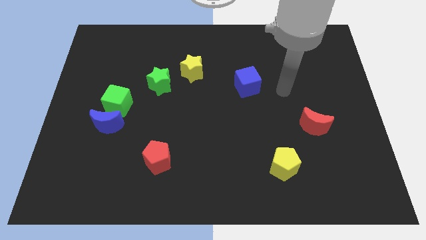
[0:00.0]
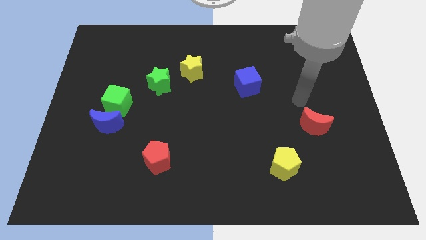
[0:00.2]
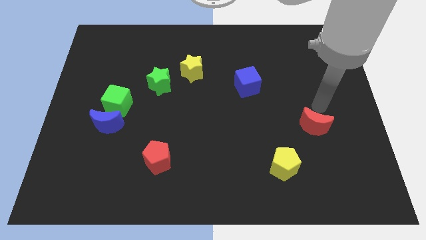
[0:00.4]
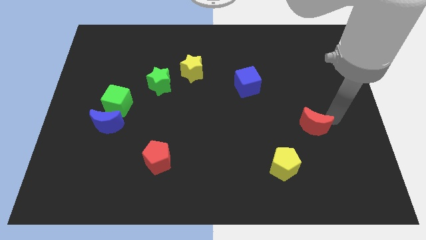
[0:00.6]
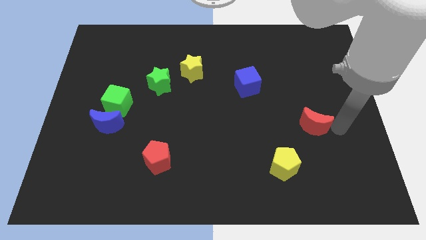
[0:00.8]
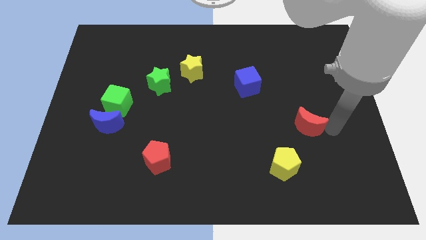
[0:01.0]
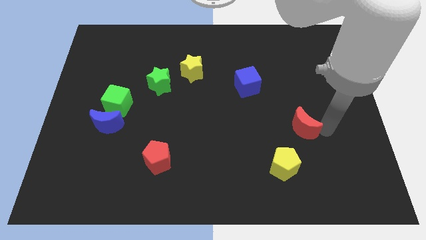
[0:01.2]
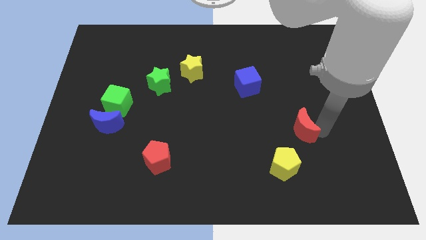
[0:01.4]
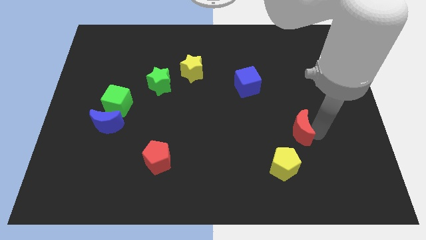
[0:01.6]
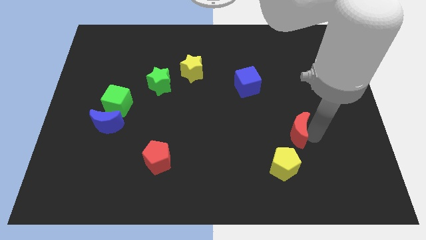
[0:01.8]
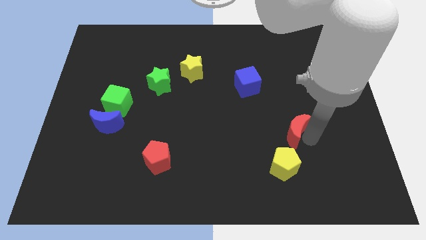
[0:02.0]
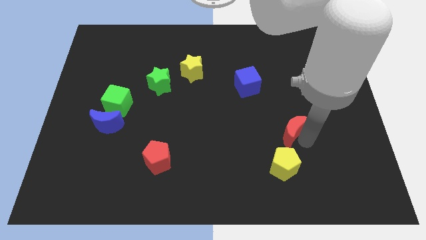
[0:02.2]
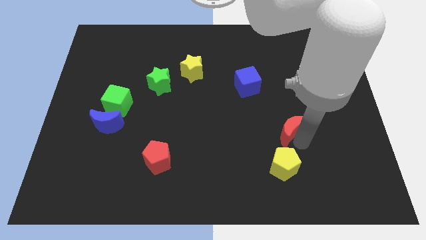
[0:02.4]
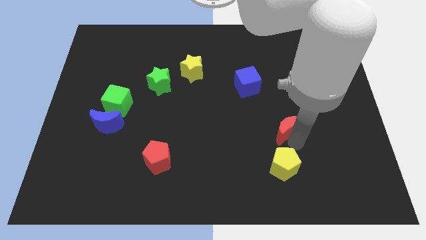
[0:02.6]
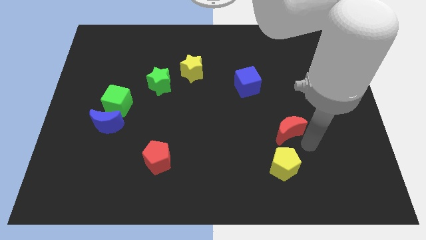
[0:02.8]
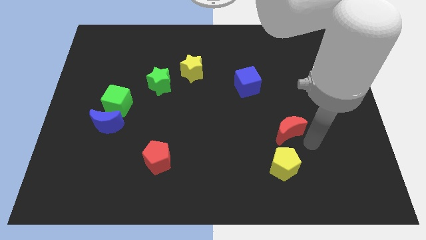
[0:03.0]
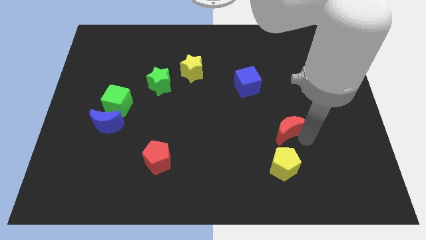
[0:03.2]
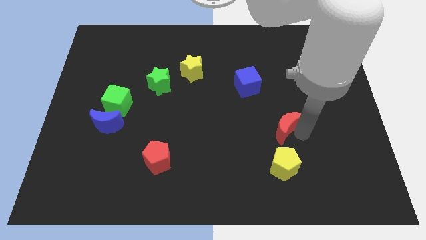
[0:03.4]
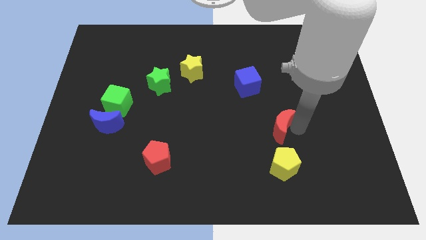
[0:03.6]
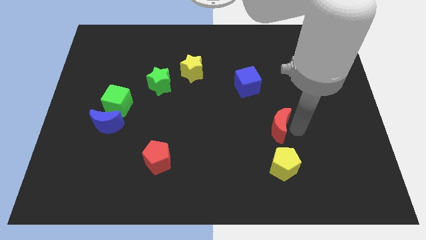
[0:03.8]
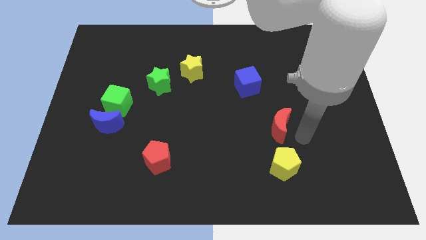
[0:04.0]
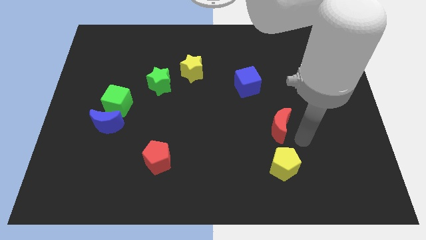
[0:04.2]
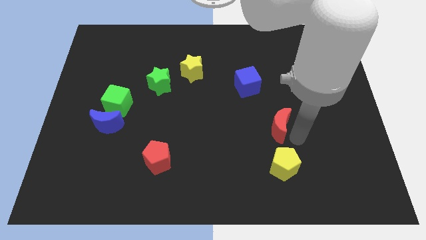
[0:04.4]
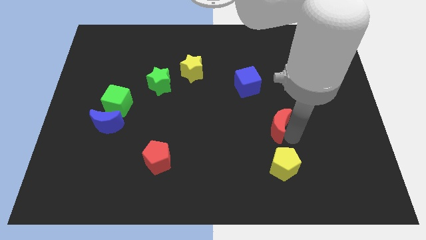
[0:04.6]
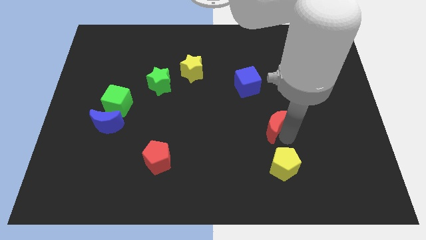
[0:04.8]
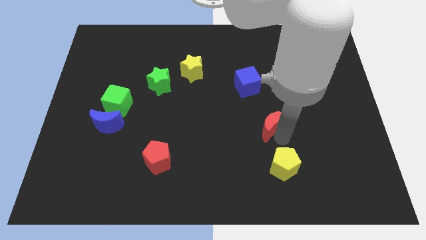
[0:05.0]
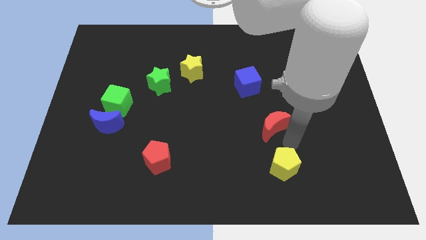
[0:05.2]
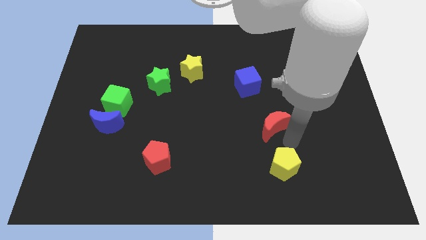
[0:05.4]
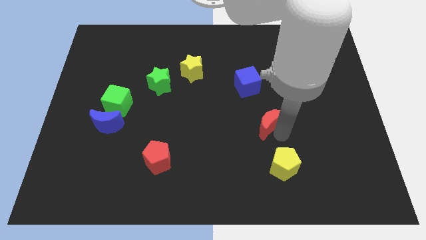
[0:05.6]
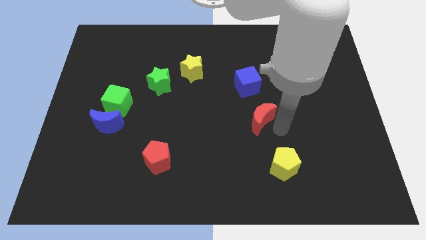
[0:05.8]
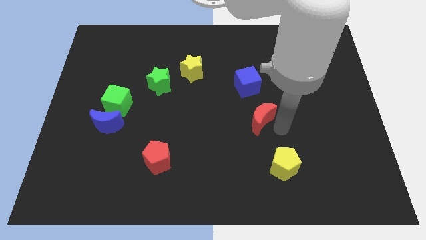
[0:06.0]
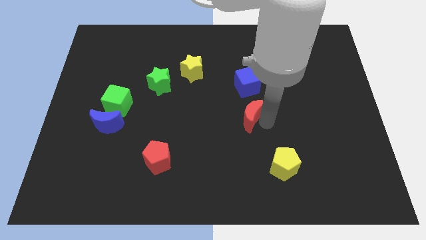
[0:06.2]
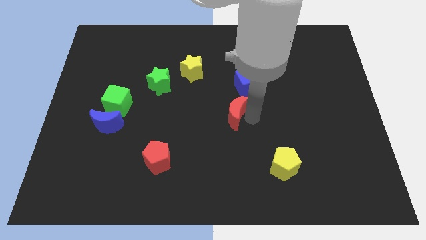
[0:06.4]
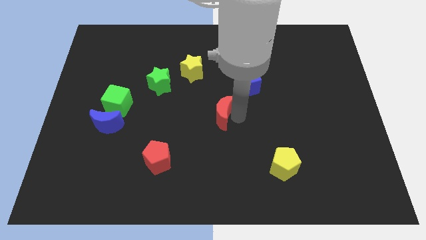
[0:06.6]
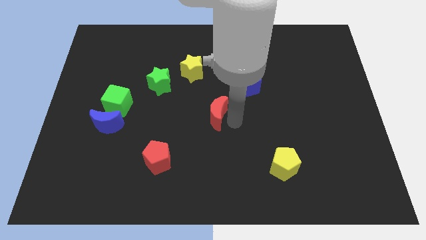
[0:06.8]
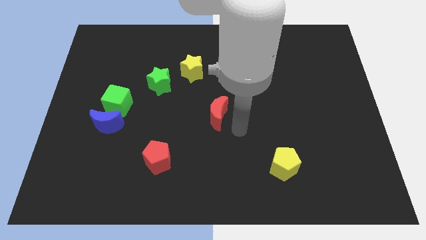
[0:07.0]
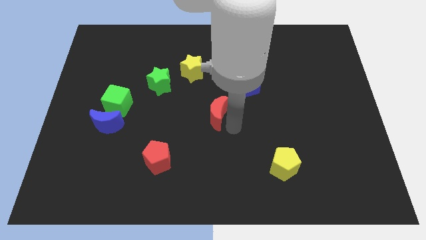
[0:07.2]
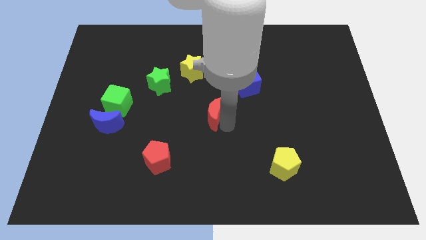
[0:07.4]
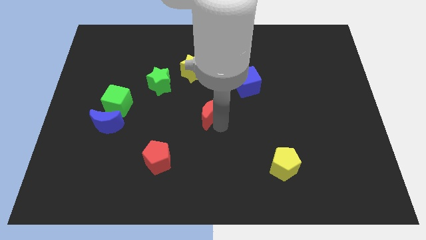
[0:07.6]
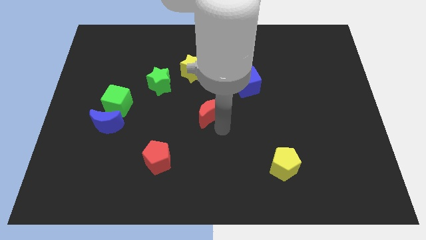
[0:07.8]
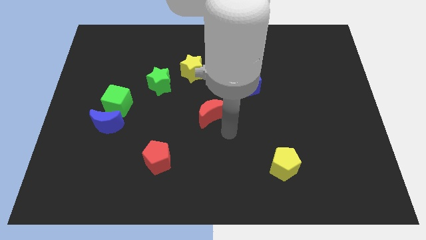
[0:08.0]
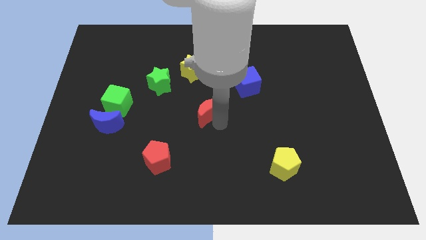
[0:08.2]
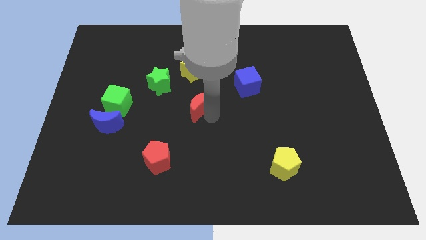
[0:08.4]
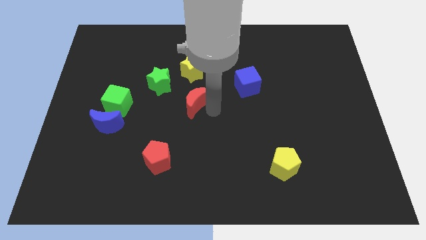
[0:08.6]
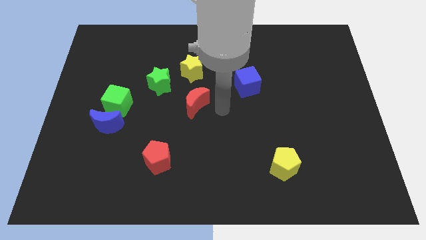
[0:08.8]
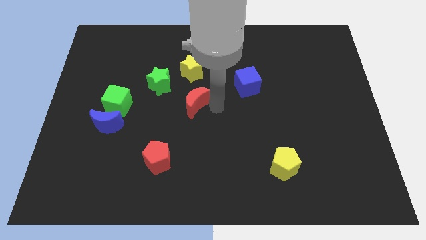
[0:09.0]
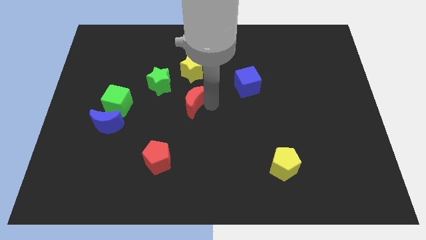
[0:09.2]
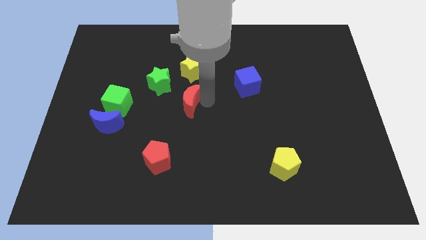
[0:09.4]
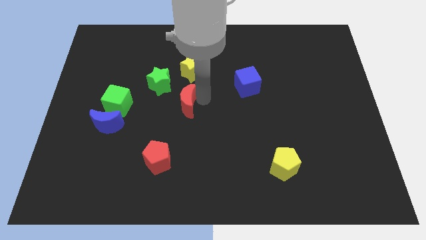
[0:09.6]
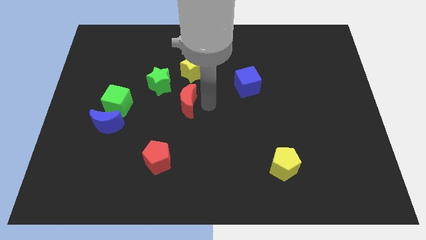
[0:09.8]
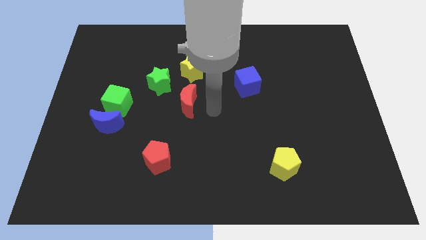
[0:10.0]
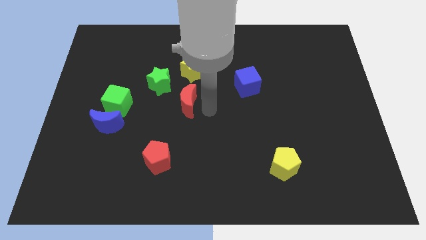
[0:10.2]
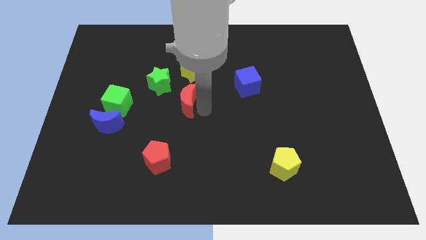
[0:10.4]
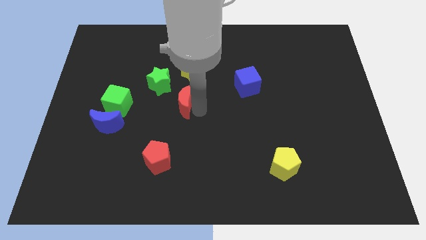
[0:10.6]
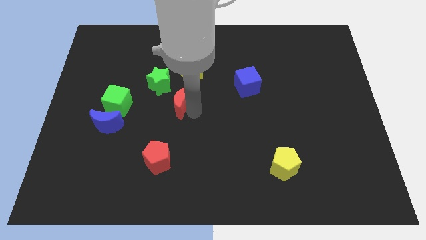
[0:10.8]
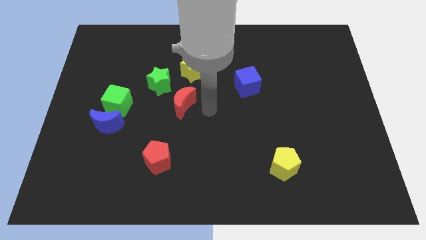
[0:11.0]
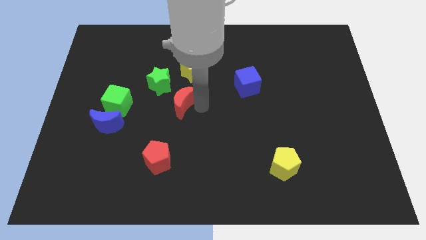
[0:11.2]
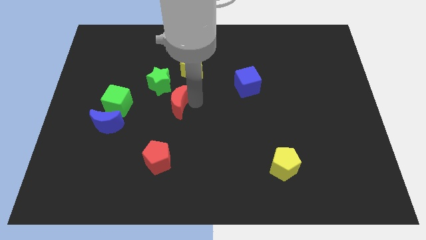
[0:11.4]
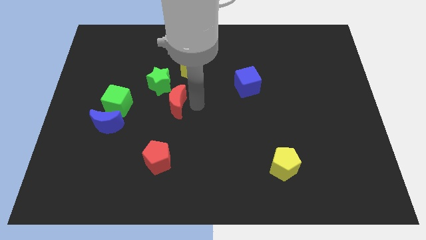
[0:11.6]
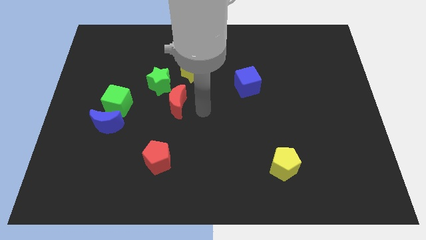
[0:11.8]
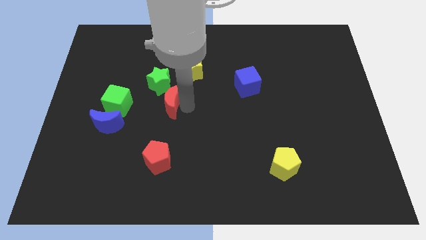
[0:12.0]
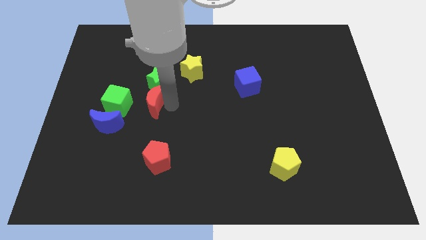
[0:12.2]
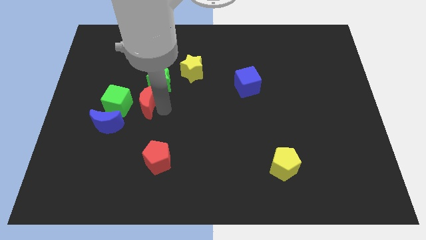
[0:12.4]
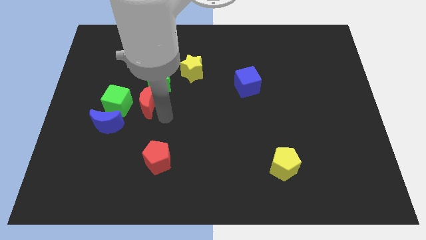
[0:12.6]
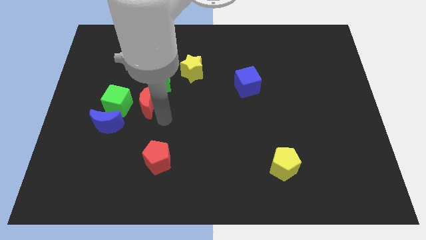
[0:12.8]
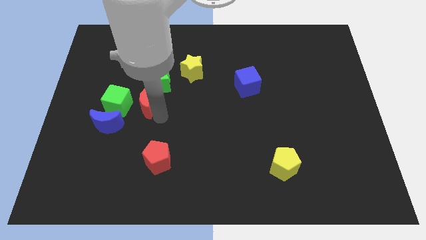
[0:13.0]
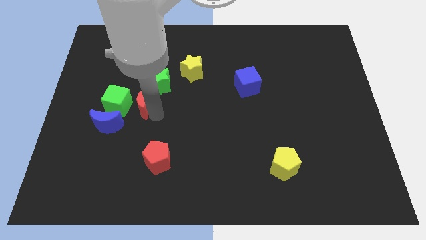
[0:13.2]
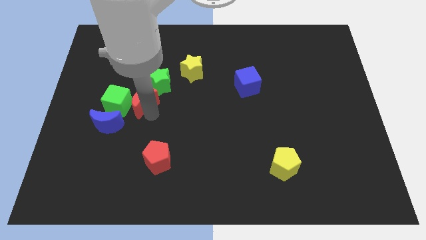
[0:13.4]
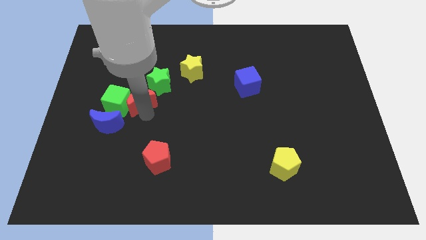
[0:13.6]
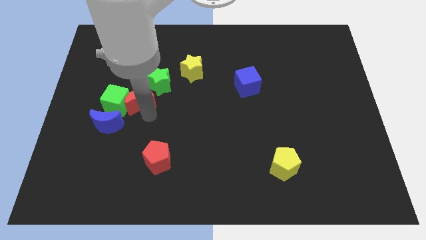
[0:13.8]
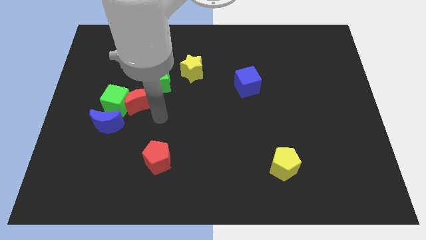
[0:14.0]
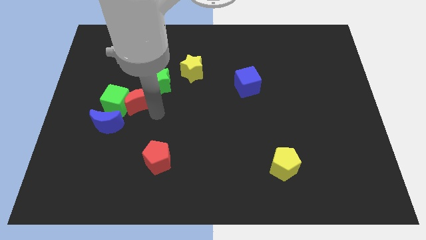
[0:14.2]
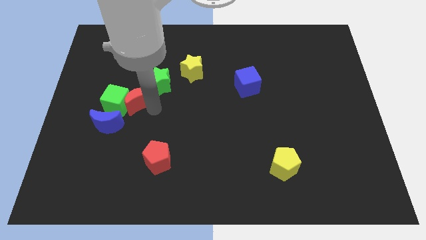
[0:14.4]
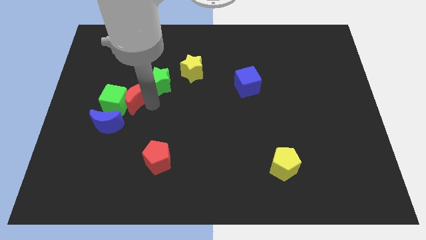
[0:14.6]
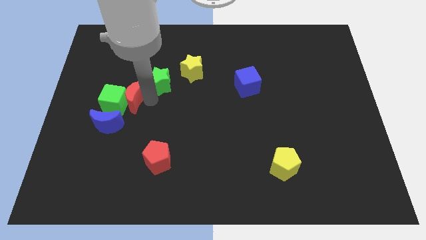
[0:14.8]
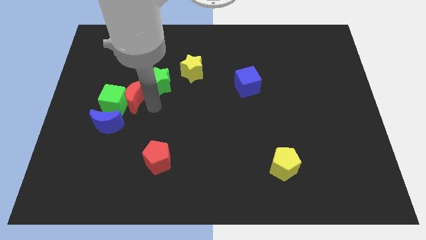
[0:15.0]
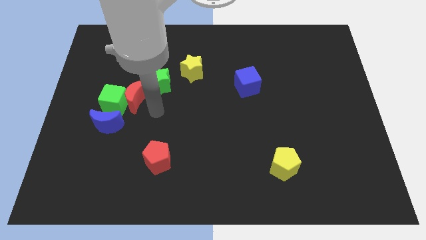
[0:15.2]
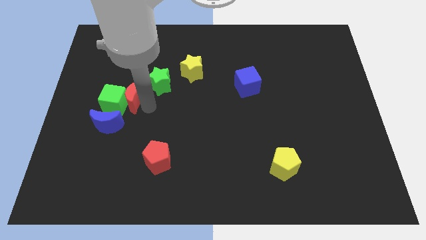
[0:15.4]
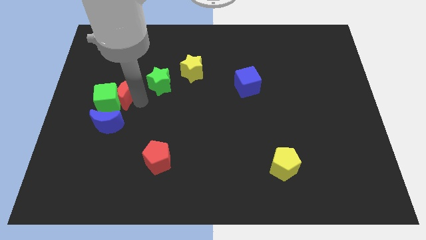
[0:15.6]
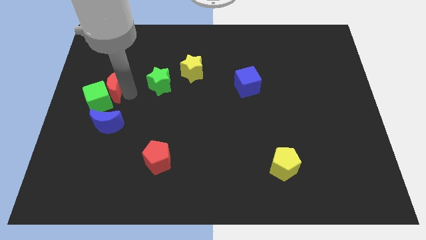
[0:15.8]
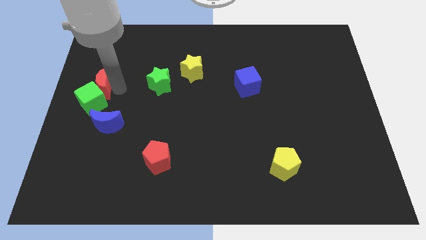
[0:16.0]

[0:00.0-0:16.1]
slide the red moon to the center left
